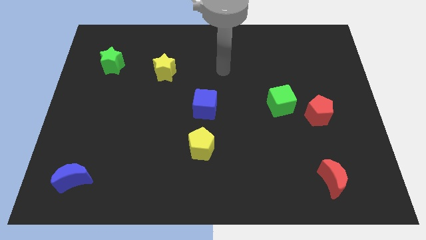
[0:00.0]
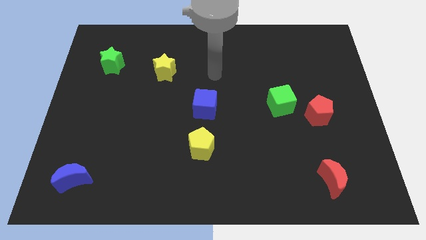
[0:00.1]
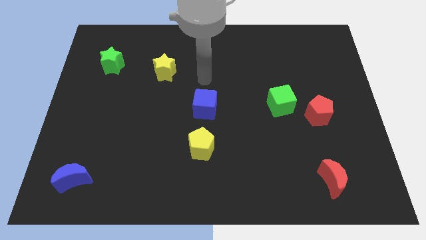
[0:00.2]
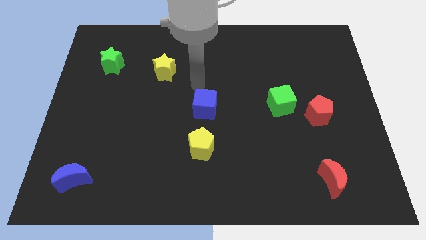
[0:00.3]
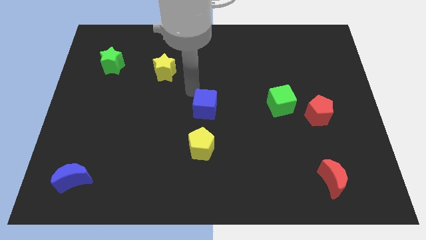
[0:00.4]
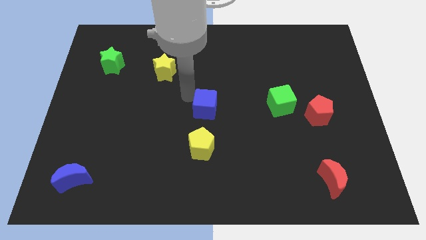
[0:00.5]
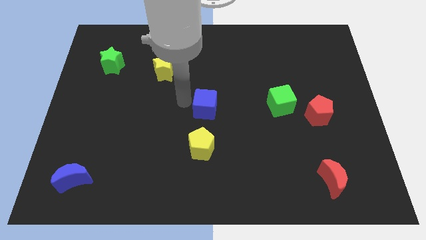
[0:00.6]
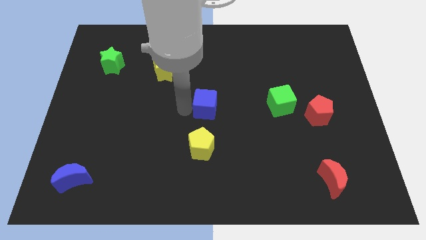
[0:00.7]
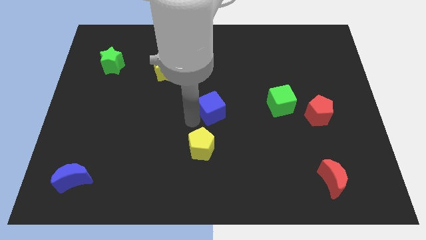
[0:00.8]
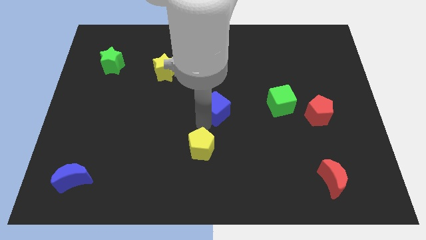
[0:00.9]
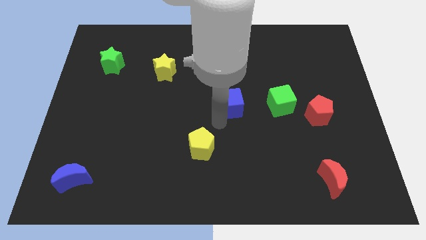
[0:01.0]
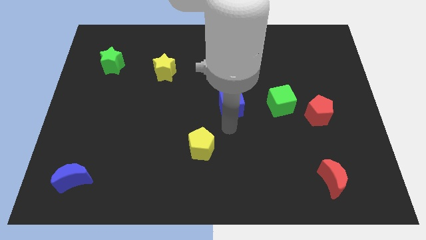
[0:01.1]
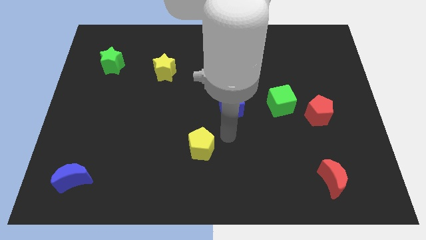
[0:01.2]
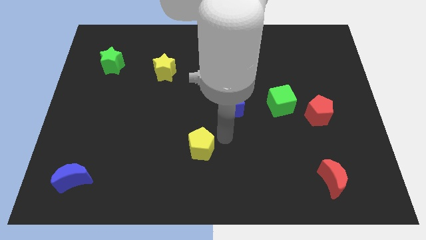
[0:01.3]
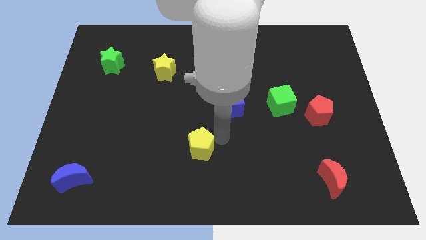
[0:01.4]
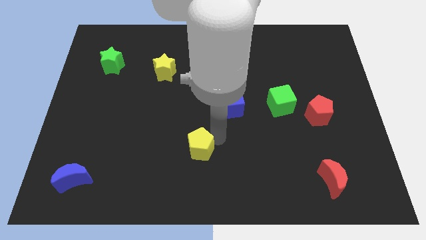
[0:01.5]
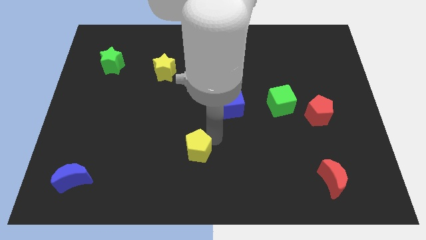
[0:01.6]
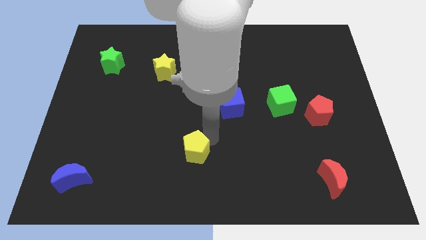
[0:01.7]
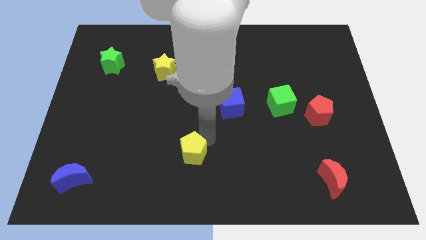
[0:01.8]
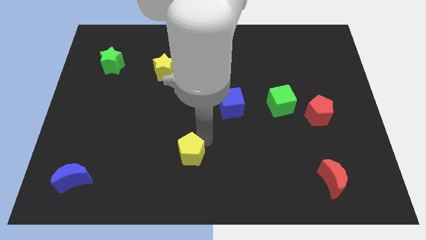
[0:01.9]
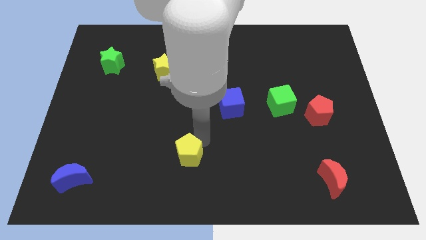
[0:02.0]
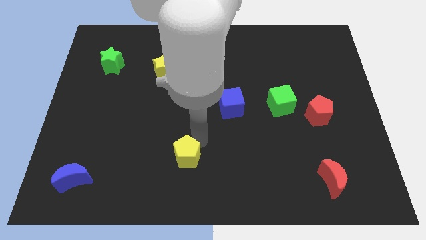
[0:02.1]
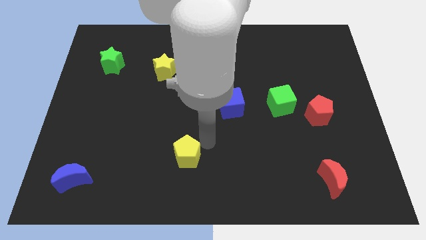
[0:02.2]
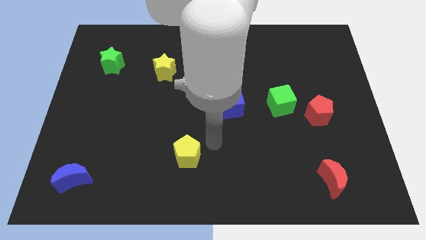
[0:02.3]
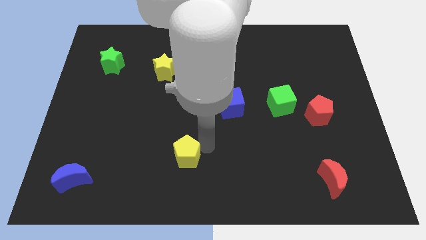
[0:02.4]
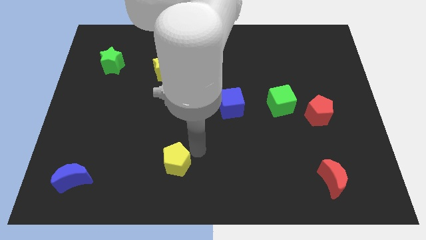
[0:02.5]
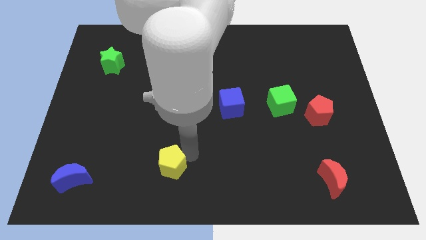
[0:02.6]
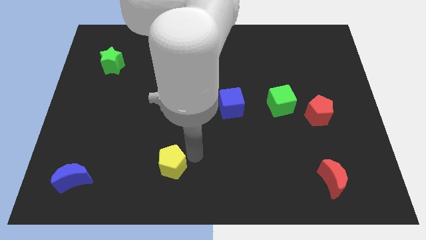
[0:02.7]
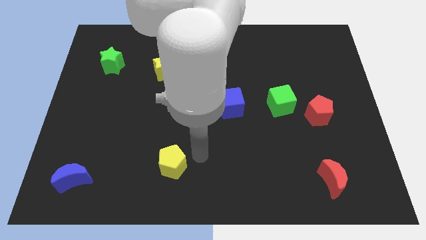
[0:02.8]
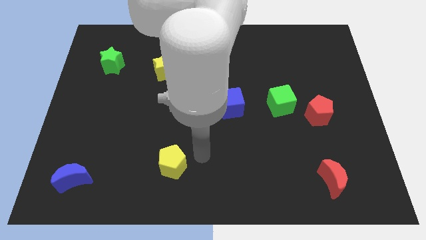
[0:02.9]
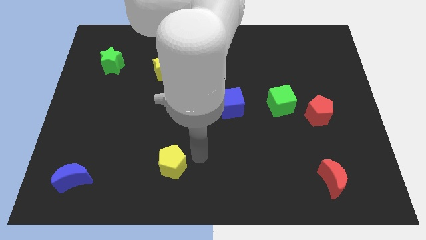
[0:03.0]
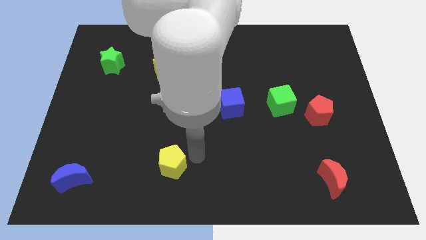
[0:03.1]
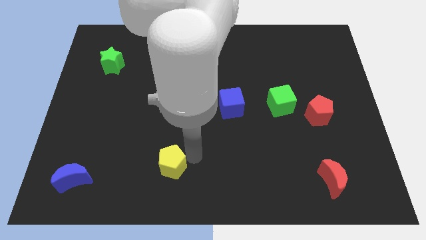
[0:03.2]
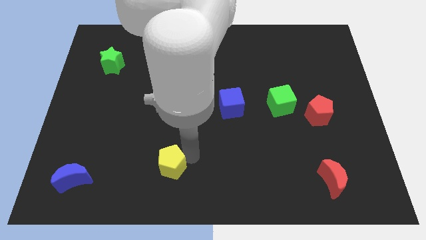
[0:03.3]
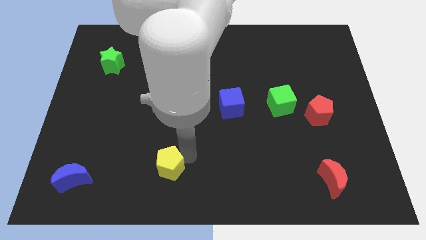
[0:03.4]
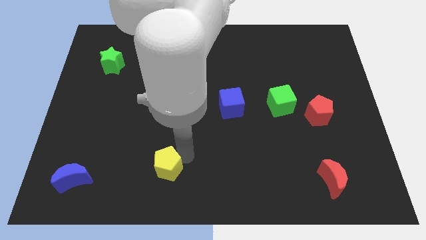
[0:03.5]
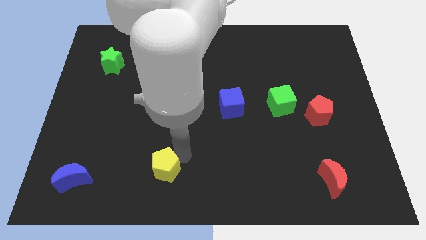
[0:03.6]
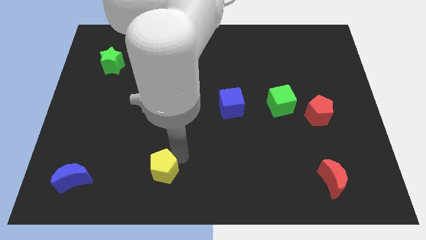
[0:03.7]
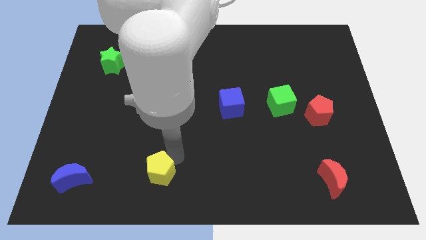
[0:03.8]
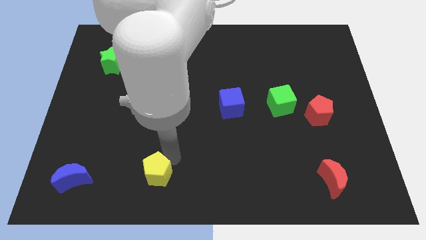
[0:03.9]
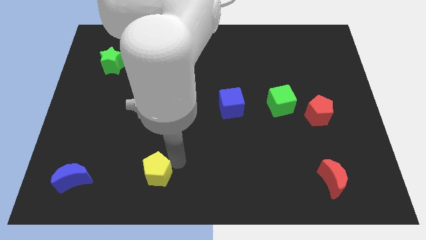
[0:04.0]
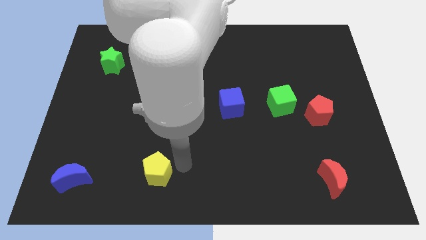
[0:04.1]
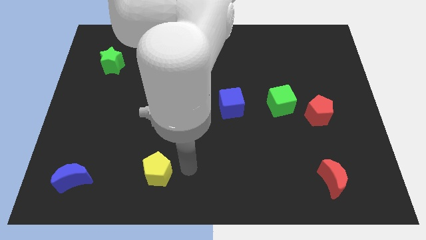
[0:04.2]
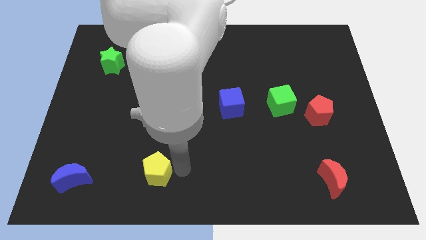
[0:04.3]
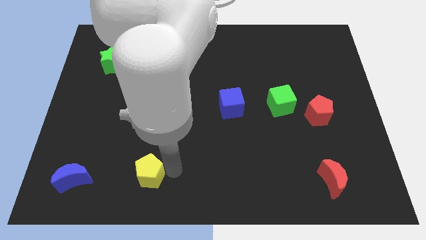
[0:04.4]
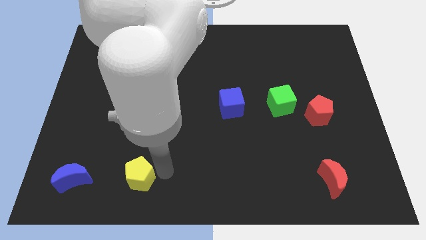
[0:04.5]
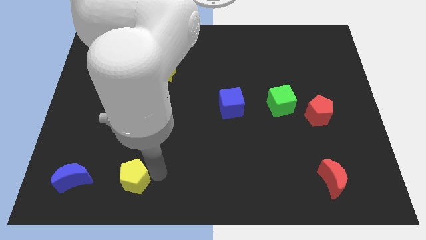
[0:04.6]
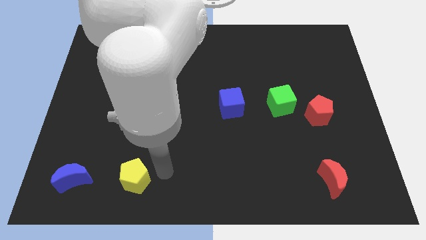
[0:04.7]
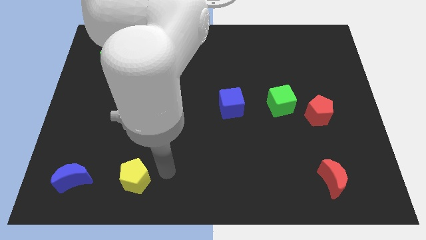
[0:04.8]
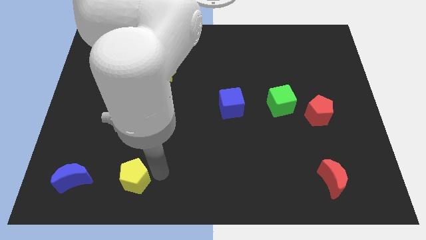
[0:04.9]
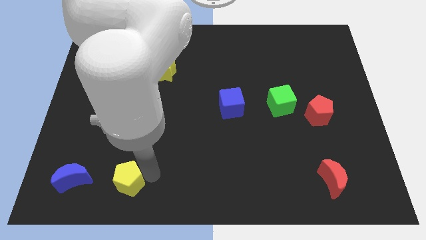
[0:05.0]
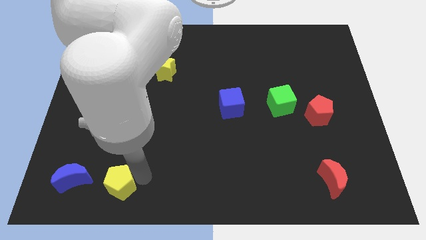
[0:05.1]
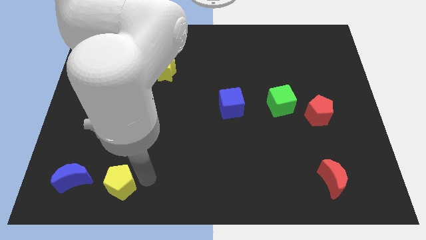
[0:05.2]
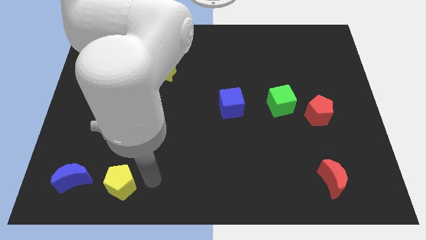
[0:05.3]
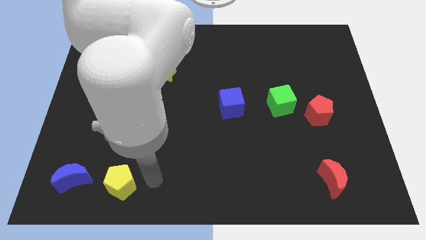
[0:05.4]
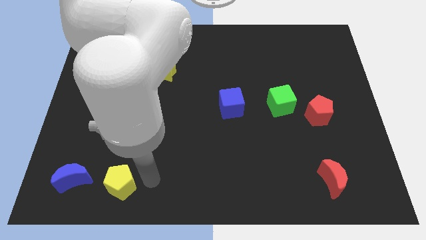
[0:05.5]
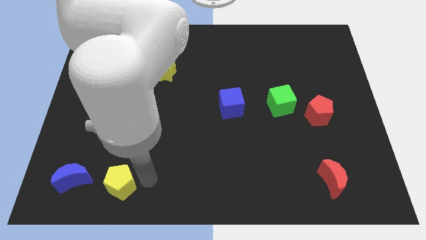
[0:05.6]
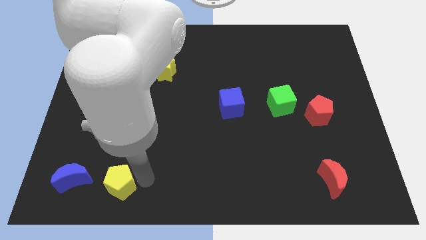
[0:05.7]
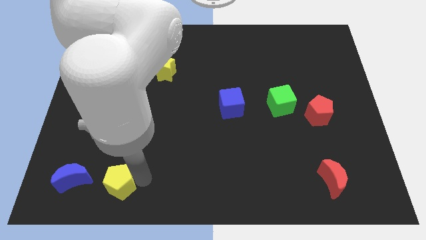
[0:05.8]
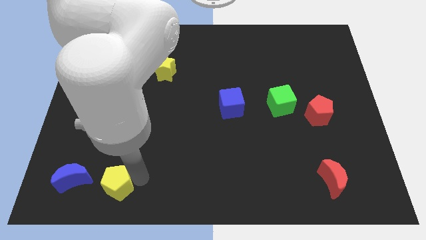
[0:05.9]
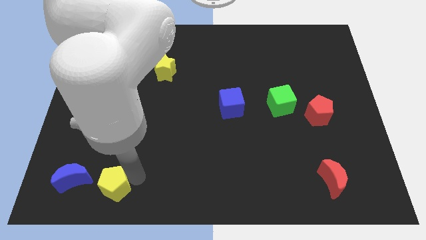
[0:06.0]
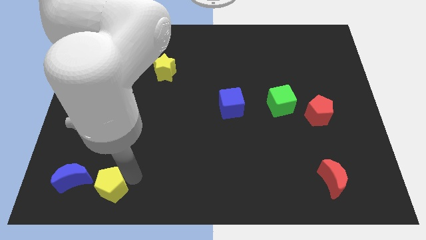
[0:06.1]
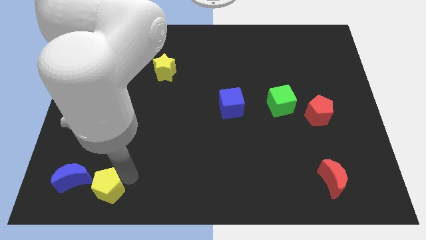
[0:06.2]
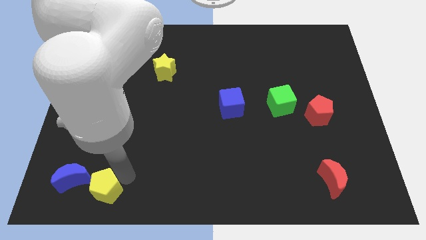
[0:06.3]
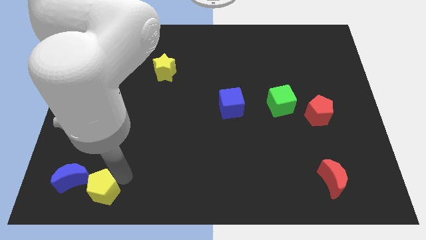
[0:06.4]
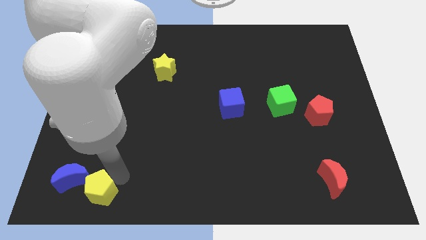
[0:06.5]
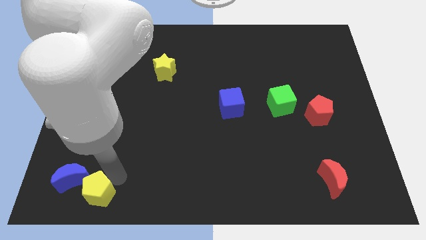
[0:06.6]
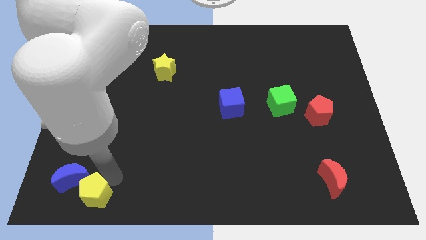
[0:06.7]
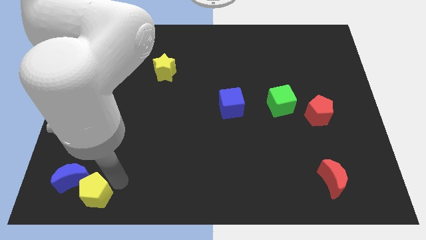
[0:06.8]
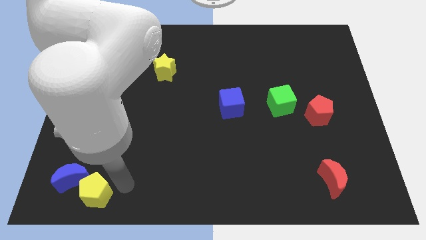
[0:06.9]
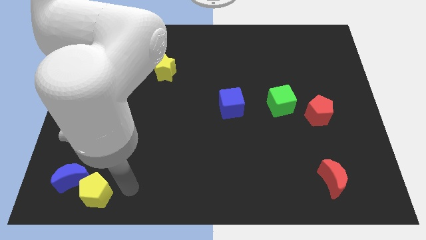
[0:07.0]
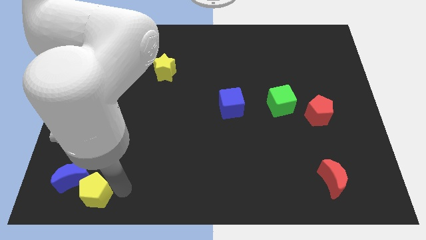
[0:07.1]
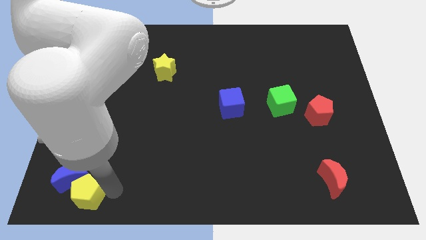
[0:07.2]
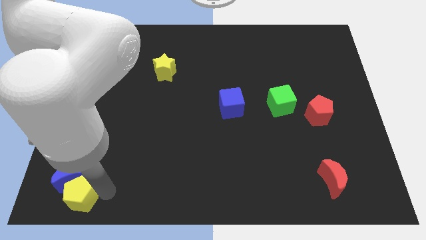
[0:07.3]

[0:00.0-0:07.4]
push the yellow pentagon to the lower left corner
